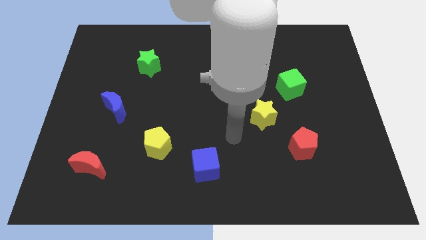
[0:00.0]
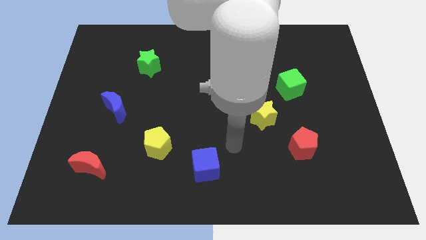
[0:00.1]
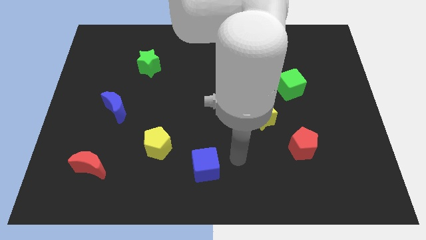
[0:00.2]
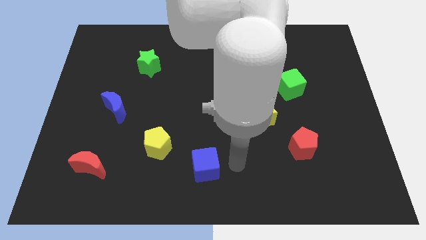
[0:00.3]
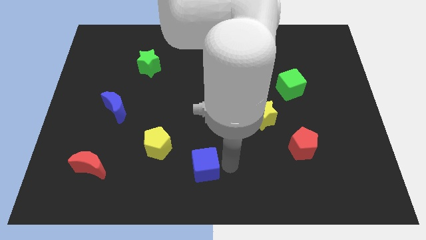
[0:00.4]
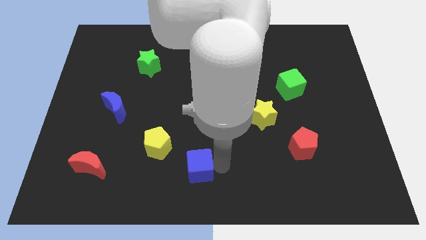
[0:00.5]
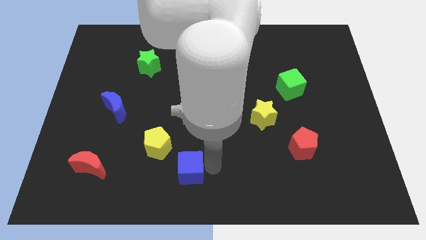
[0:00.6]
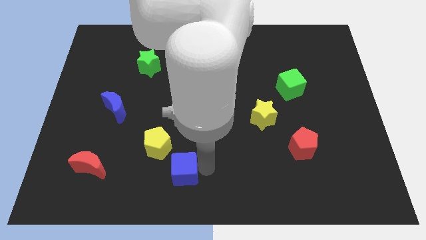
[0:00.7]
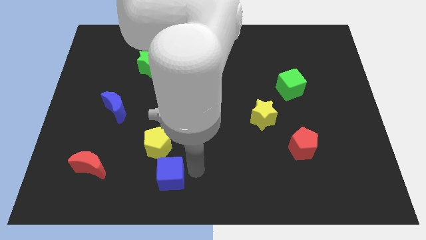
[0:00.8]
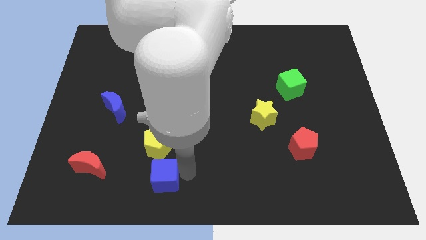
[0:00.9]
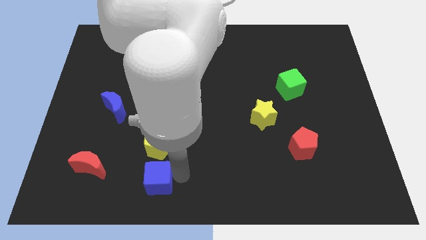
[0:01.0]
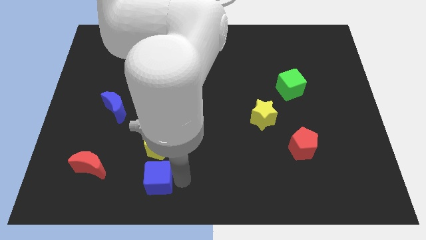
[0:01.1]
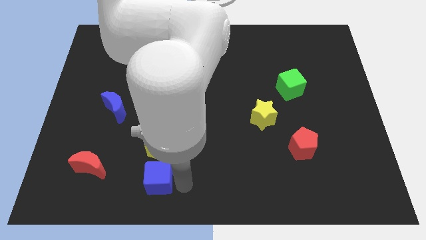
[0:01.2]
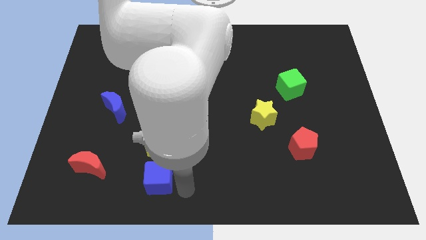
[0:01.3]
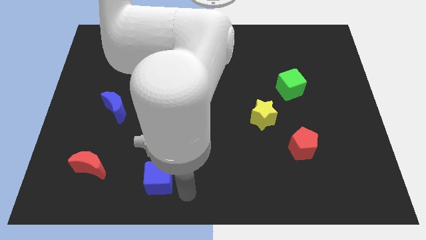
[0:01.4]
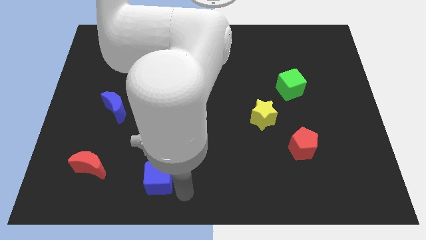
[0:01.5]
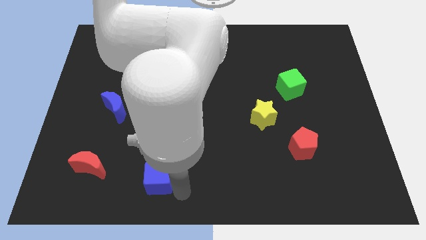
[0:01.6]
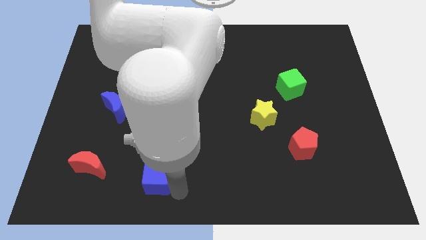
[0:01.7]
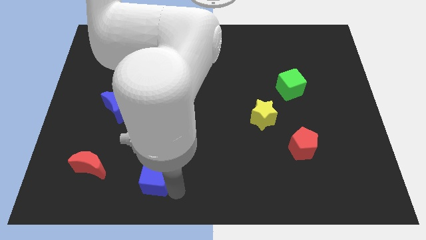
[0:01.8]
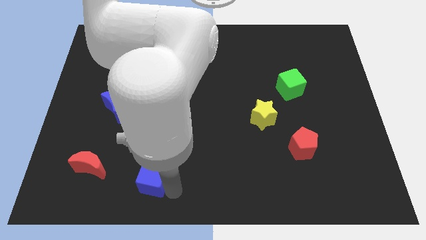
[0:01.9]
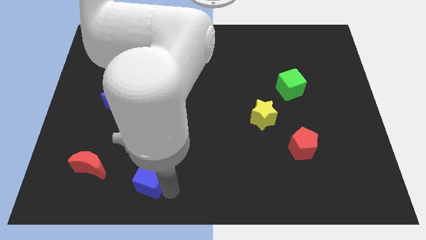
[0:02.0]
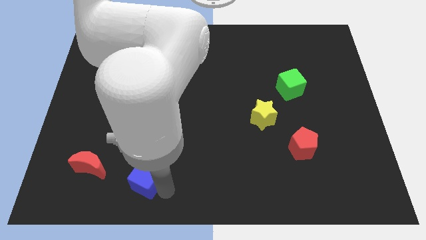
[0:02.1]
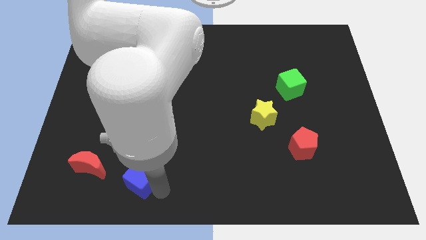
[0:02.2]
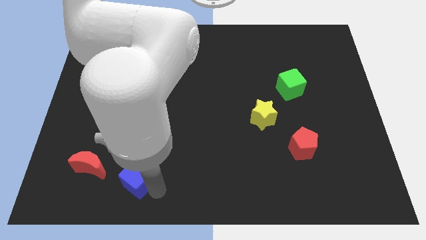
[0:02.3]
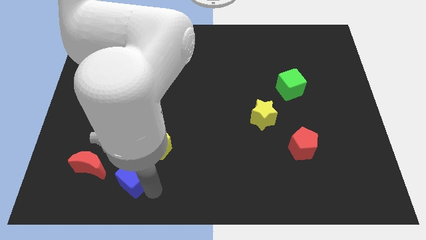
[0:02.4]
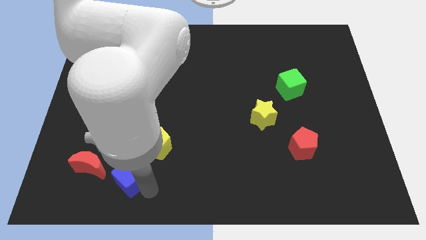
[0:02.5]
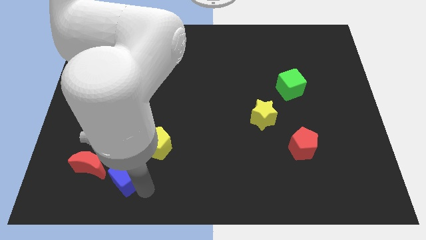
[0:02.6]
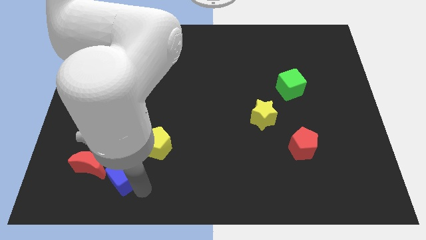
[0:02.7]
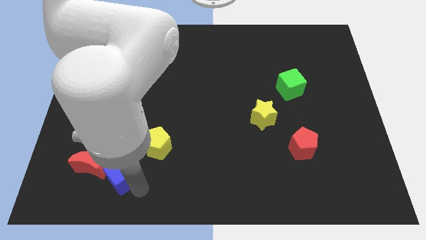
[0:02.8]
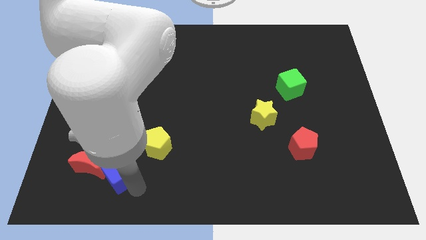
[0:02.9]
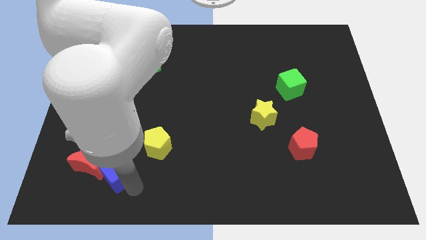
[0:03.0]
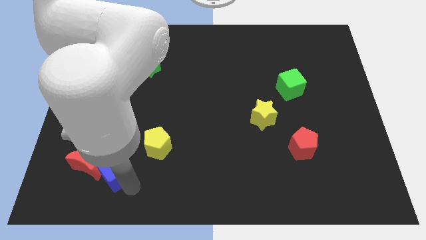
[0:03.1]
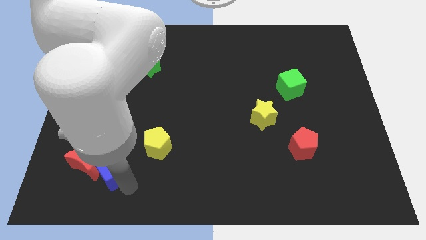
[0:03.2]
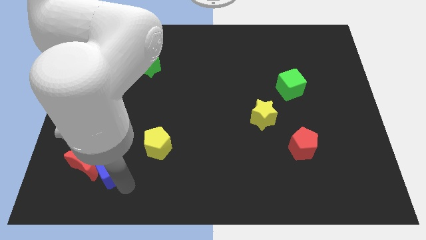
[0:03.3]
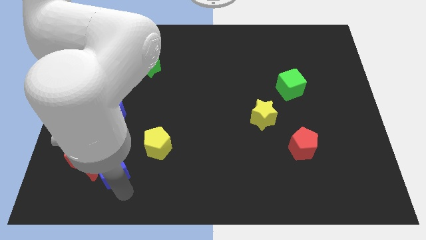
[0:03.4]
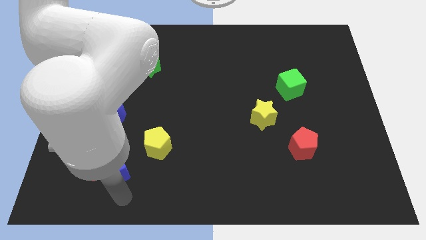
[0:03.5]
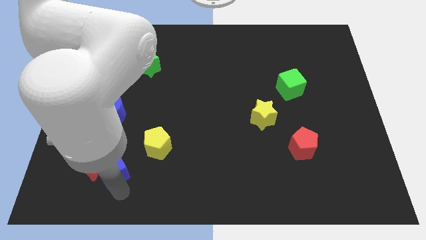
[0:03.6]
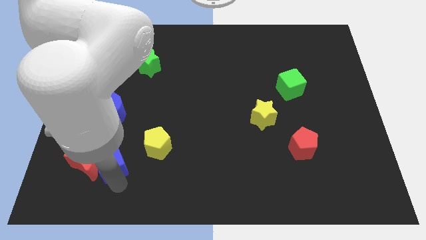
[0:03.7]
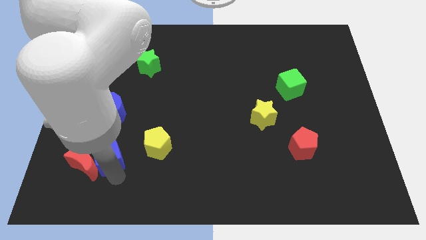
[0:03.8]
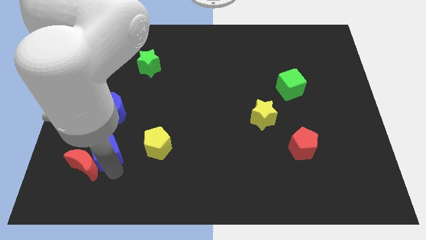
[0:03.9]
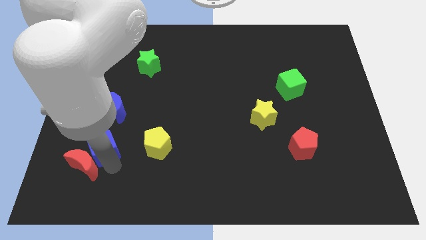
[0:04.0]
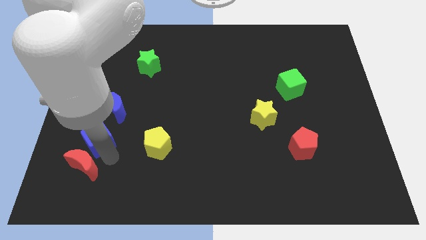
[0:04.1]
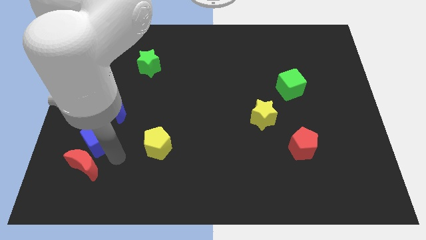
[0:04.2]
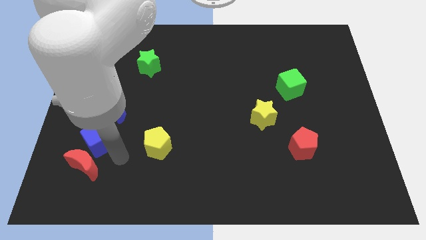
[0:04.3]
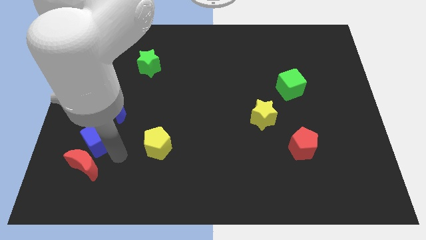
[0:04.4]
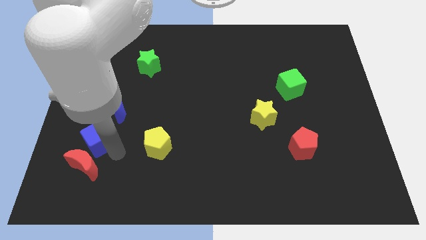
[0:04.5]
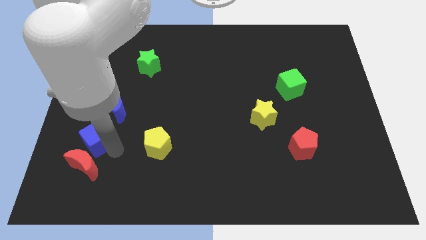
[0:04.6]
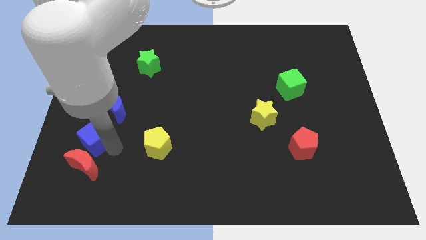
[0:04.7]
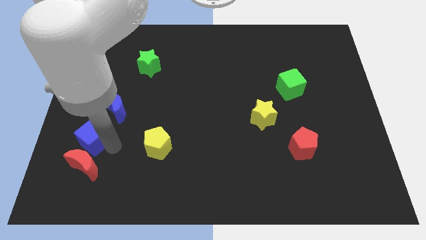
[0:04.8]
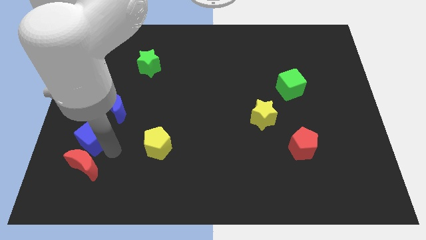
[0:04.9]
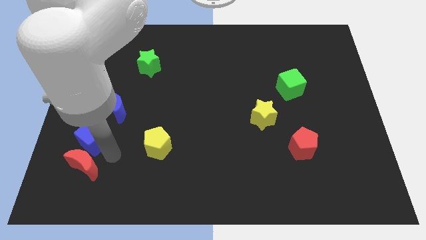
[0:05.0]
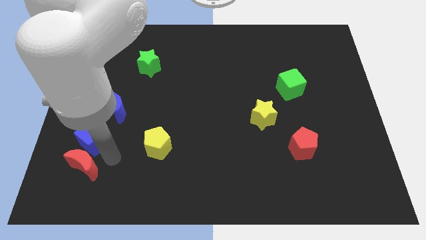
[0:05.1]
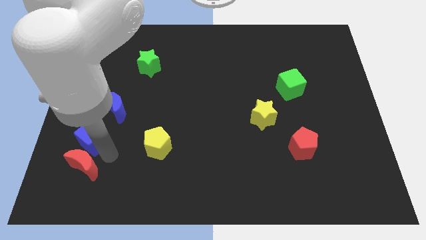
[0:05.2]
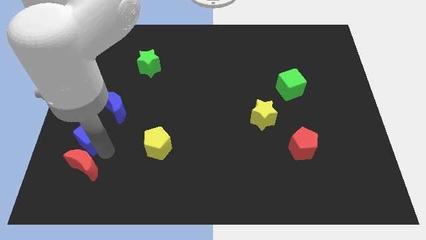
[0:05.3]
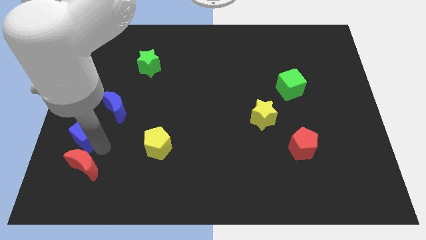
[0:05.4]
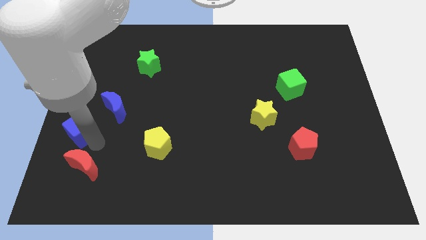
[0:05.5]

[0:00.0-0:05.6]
move the blue cube to the left side

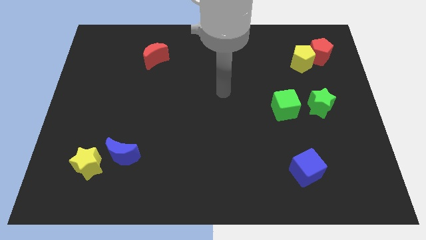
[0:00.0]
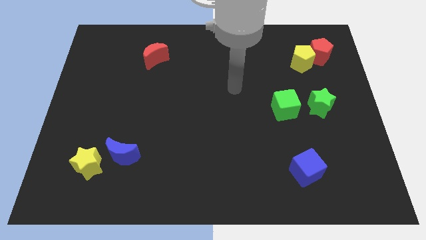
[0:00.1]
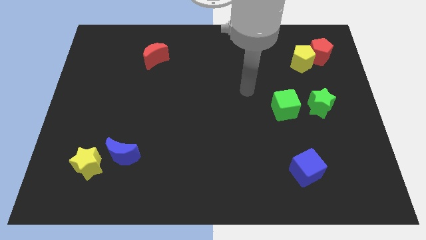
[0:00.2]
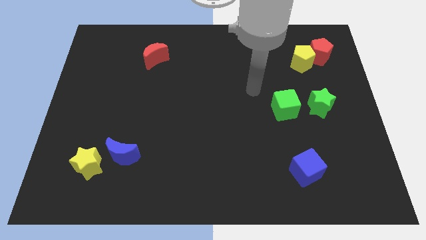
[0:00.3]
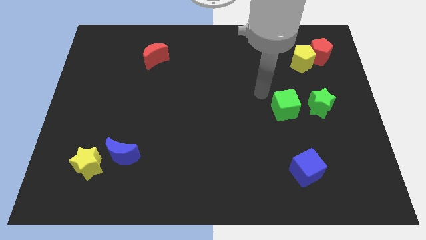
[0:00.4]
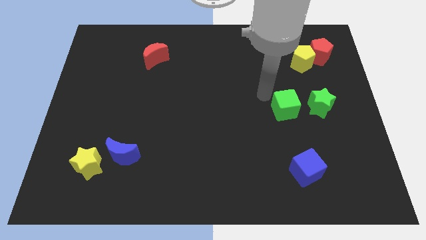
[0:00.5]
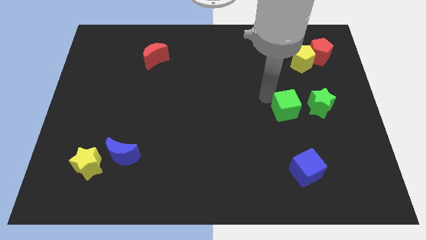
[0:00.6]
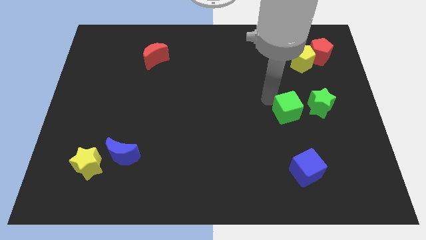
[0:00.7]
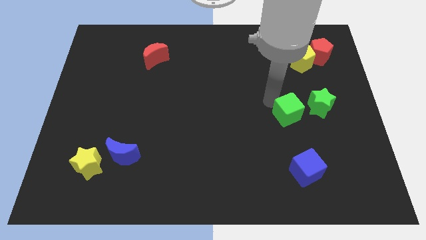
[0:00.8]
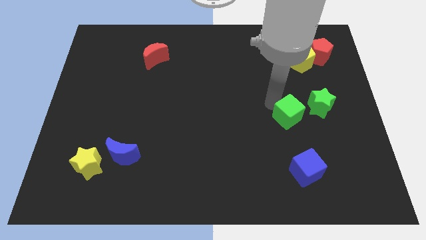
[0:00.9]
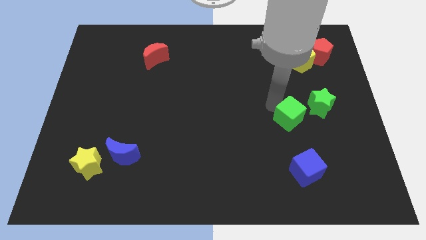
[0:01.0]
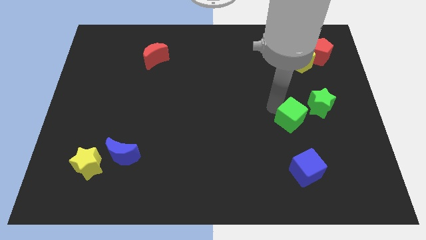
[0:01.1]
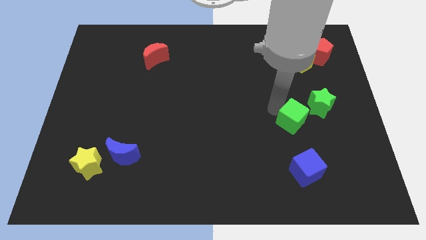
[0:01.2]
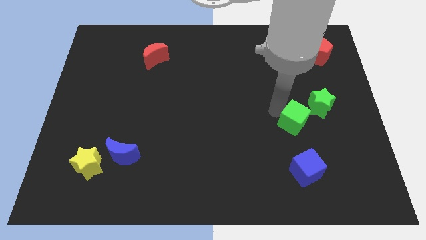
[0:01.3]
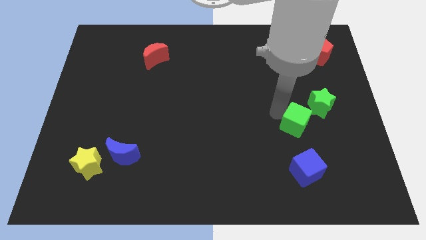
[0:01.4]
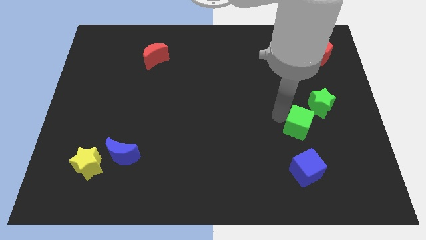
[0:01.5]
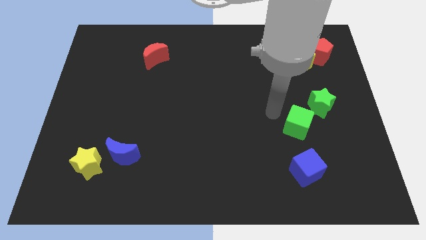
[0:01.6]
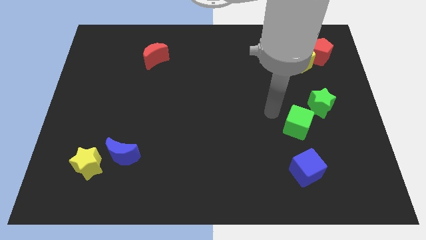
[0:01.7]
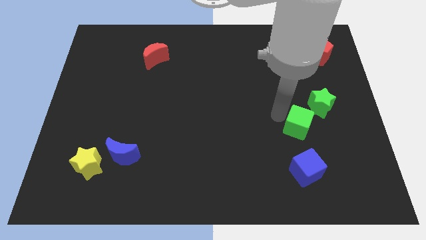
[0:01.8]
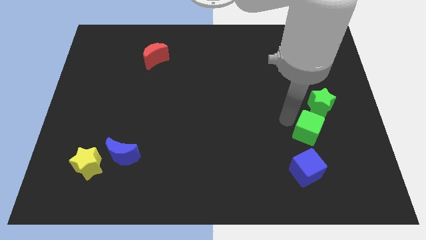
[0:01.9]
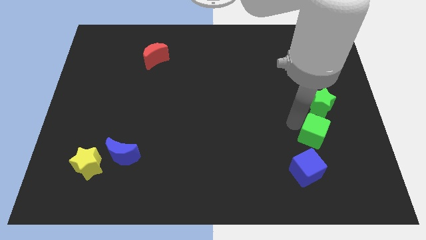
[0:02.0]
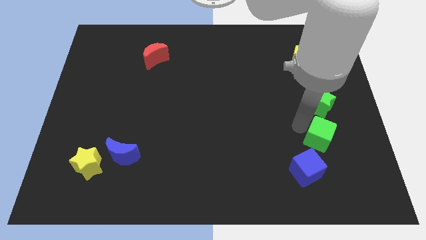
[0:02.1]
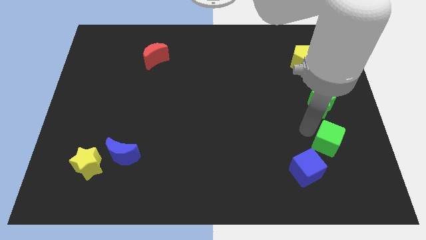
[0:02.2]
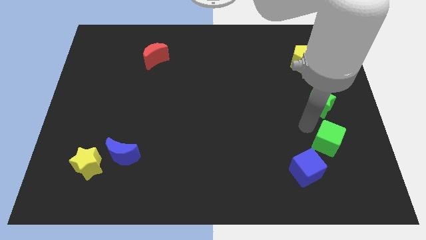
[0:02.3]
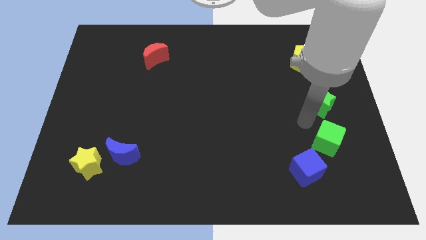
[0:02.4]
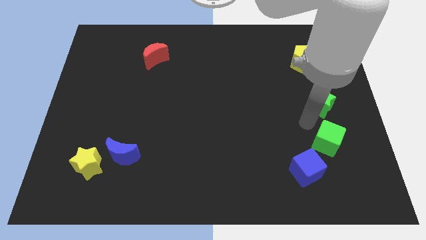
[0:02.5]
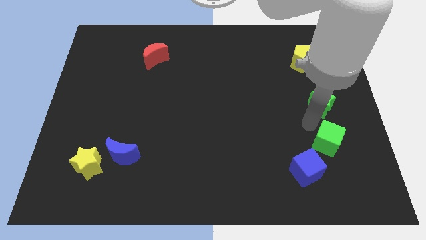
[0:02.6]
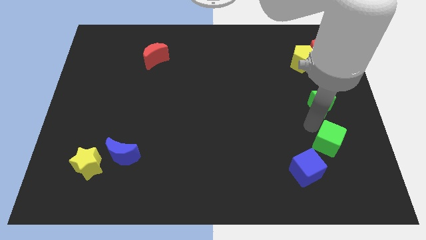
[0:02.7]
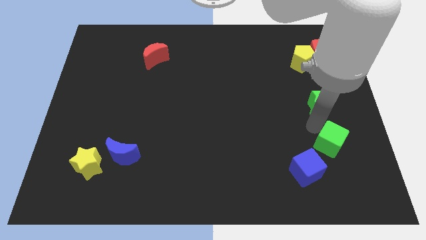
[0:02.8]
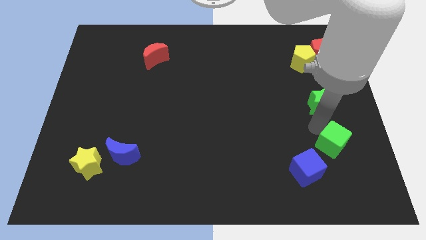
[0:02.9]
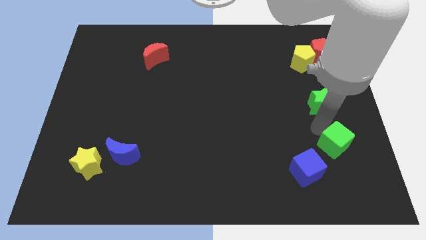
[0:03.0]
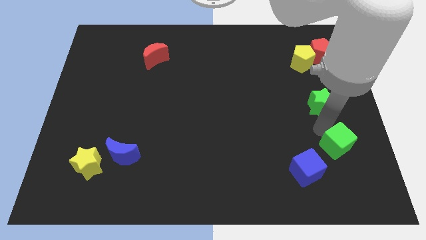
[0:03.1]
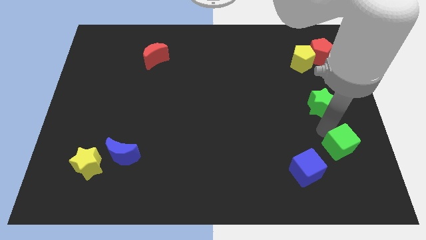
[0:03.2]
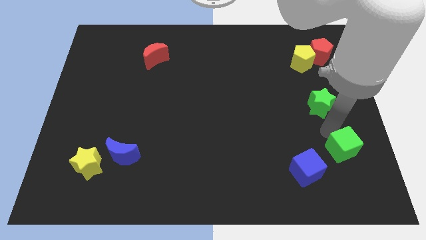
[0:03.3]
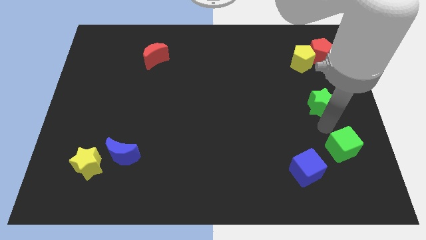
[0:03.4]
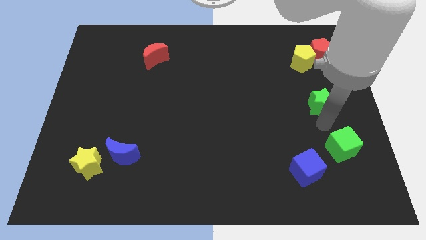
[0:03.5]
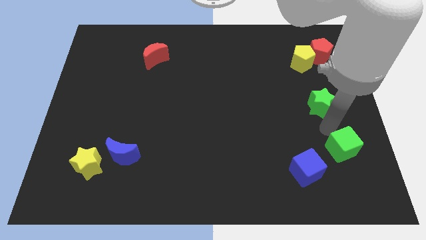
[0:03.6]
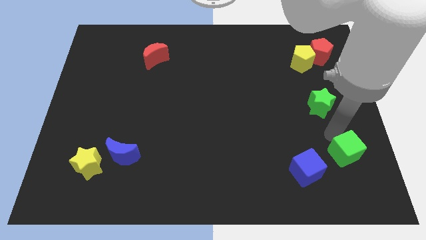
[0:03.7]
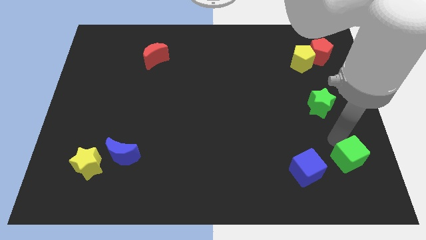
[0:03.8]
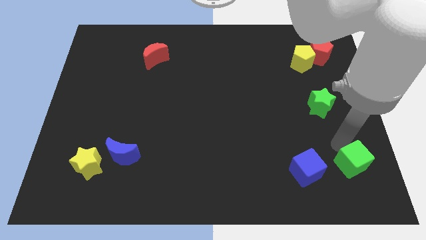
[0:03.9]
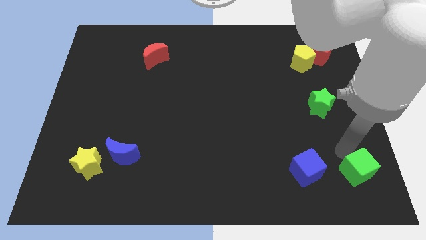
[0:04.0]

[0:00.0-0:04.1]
slide the green cube to the bottom right of the board
